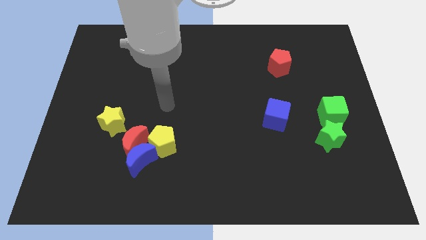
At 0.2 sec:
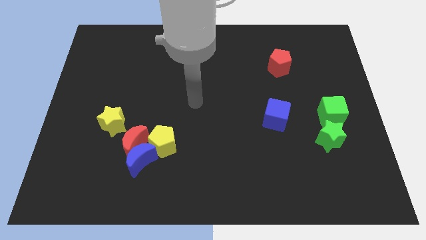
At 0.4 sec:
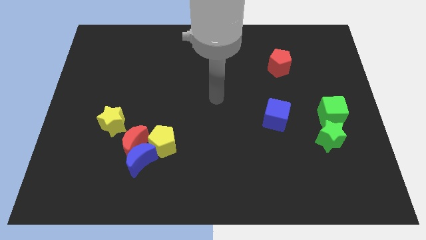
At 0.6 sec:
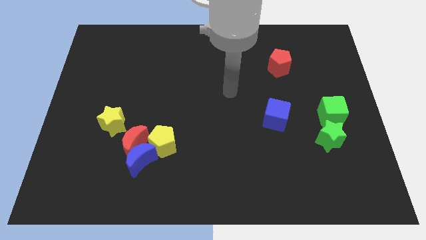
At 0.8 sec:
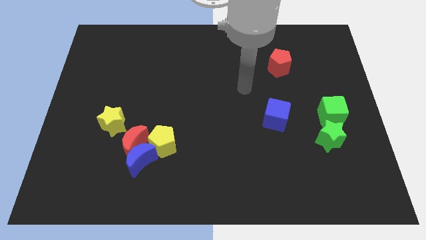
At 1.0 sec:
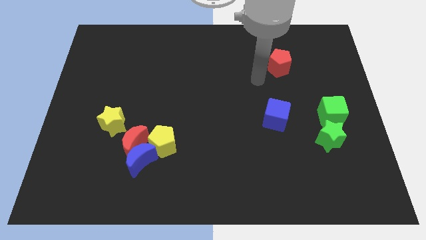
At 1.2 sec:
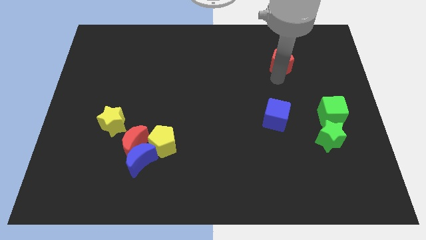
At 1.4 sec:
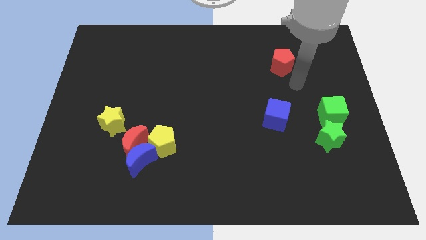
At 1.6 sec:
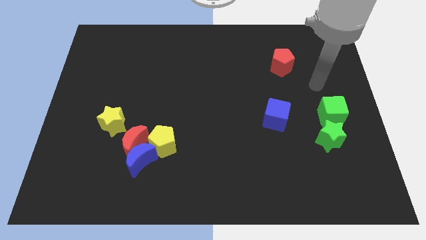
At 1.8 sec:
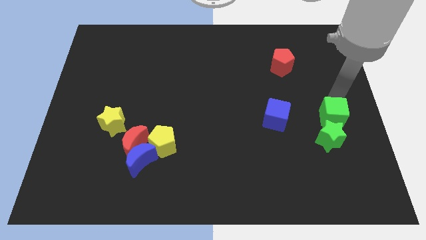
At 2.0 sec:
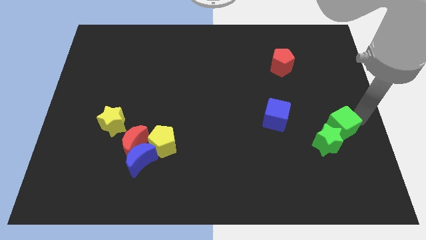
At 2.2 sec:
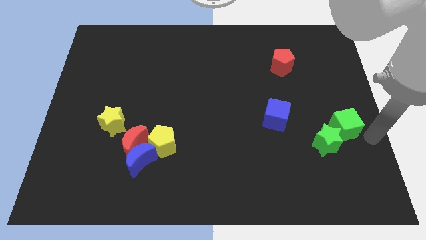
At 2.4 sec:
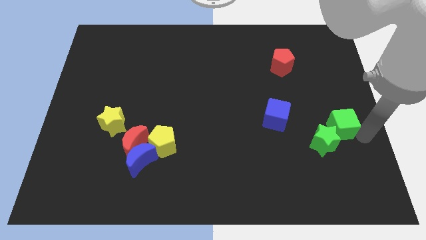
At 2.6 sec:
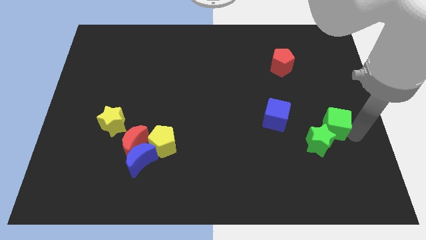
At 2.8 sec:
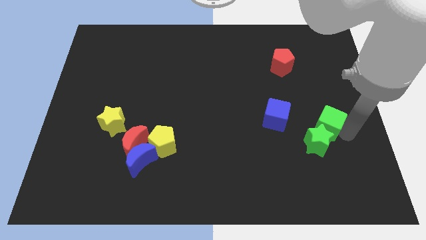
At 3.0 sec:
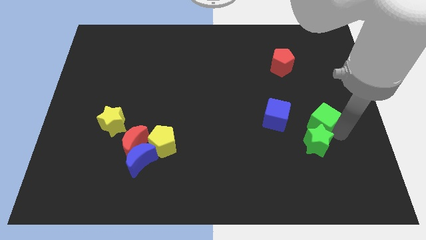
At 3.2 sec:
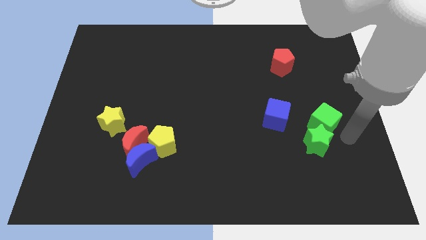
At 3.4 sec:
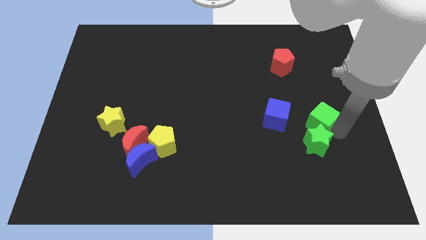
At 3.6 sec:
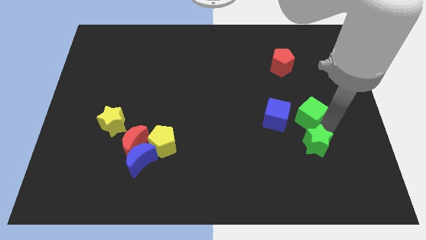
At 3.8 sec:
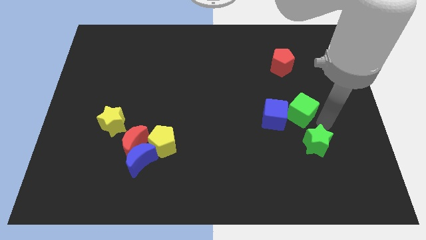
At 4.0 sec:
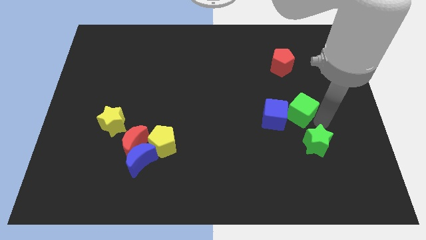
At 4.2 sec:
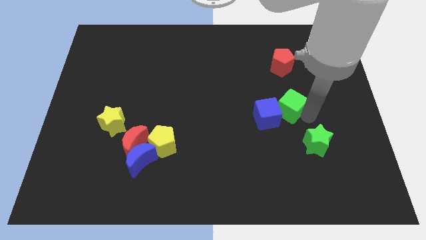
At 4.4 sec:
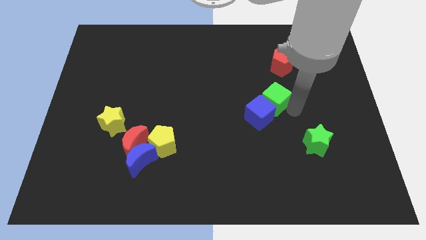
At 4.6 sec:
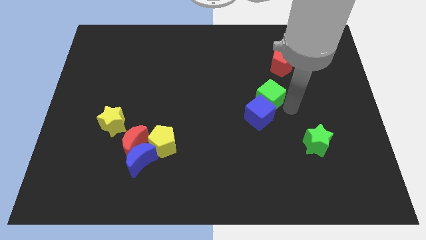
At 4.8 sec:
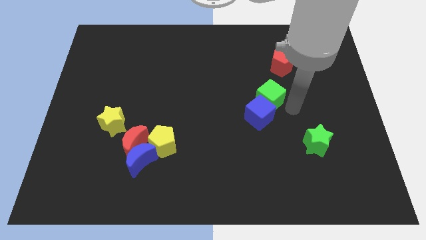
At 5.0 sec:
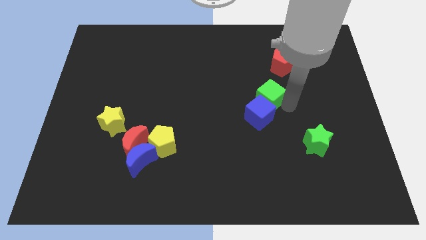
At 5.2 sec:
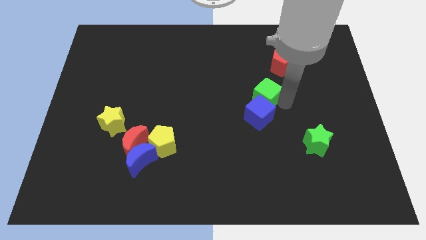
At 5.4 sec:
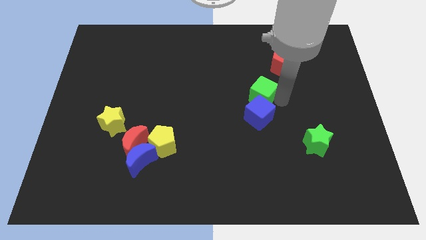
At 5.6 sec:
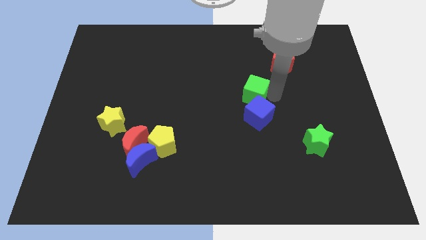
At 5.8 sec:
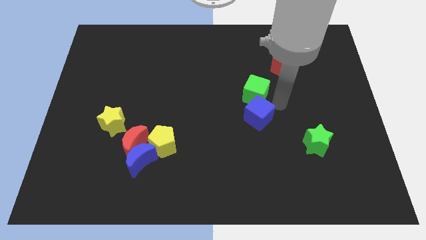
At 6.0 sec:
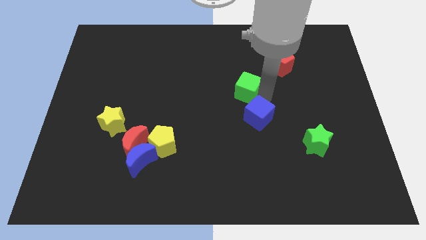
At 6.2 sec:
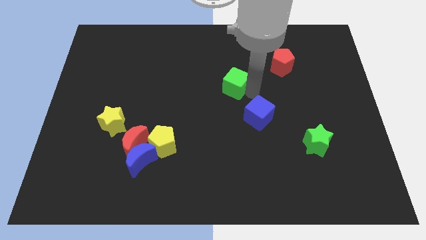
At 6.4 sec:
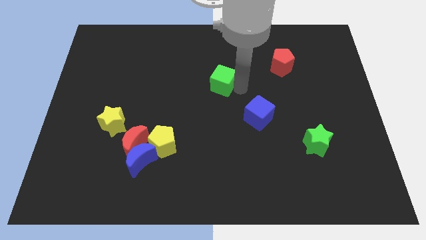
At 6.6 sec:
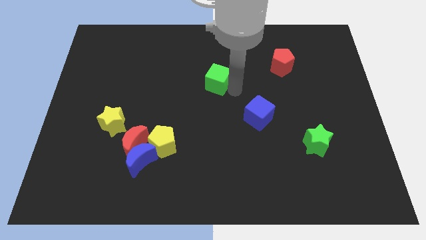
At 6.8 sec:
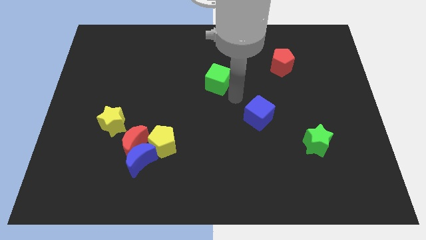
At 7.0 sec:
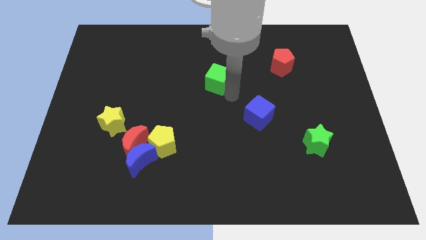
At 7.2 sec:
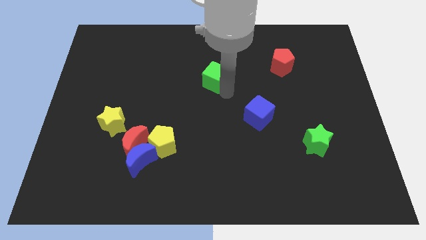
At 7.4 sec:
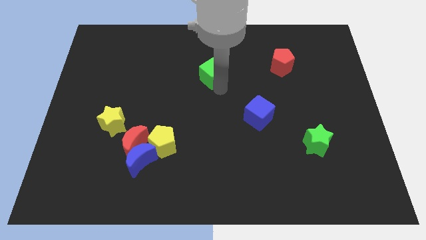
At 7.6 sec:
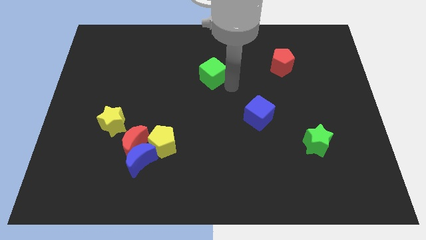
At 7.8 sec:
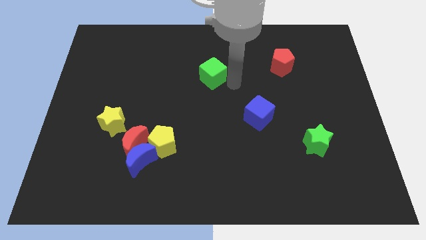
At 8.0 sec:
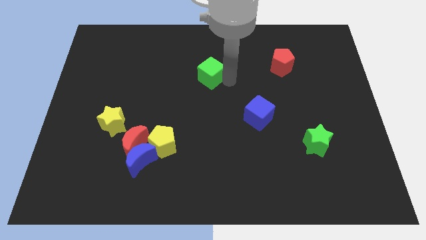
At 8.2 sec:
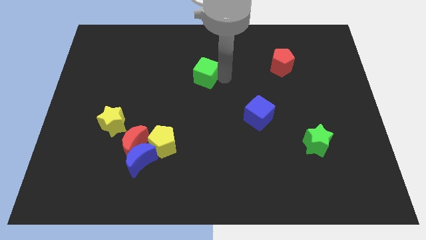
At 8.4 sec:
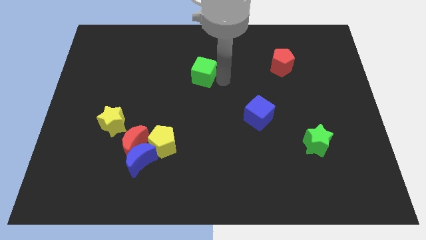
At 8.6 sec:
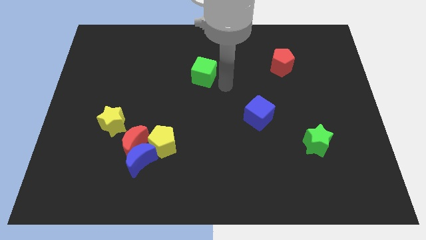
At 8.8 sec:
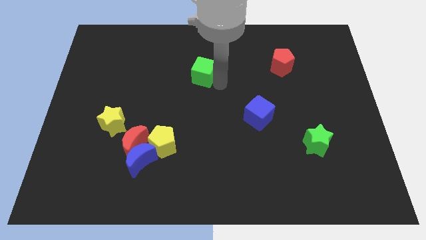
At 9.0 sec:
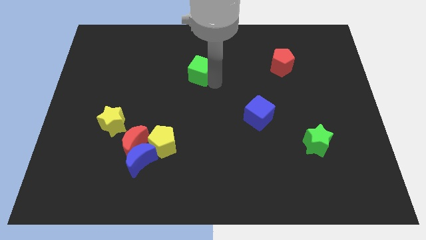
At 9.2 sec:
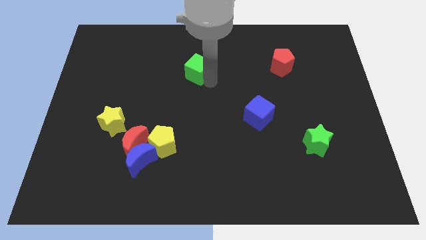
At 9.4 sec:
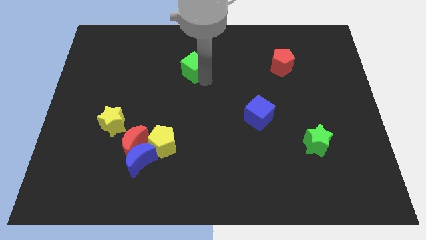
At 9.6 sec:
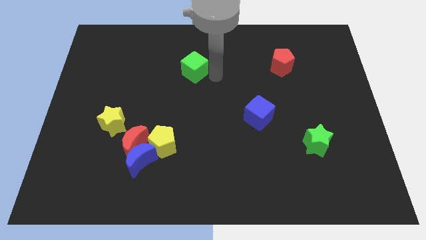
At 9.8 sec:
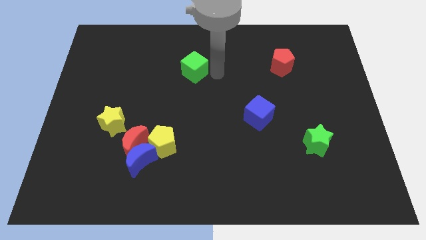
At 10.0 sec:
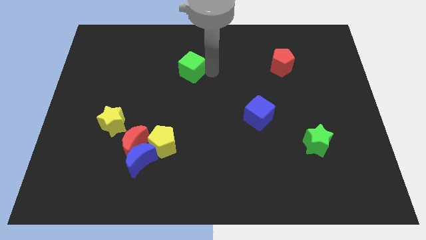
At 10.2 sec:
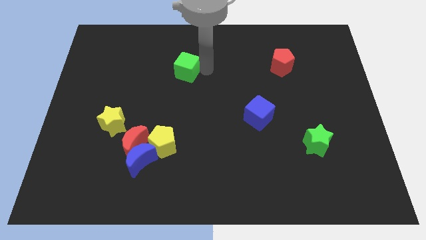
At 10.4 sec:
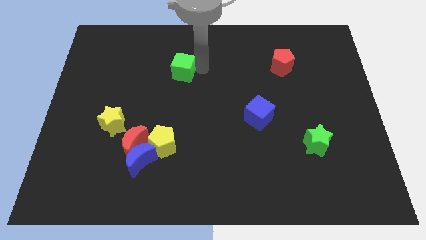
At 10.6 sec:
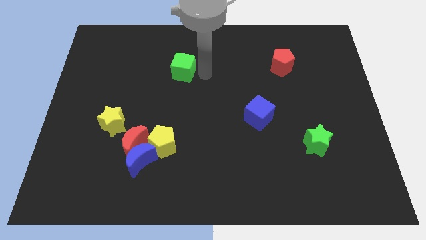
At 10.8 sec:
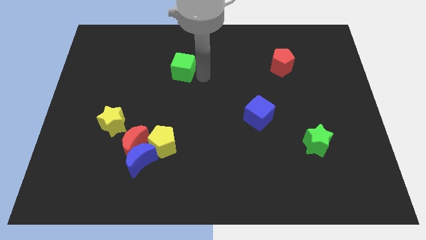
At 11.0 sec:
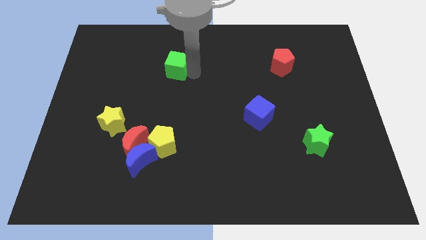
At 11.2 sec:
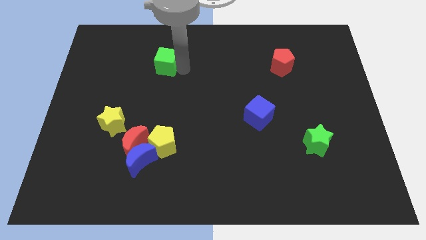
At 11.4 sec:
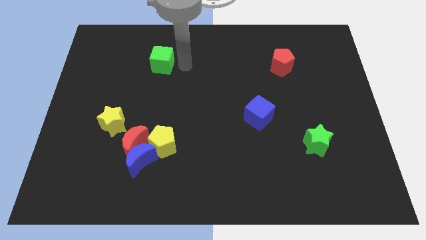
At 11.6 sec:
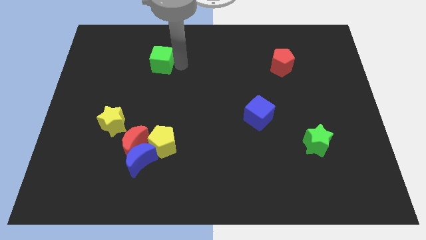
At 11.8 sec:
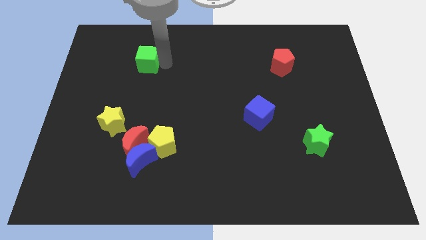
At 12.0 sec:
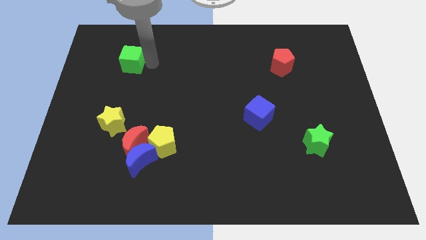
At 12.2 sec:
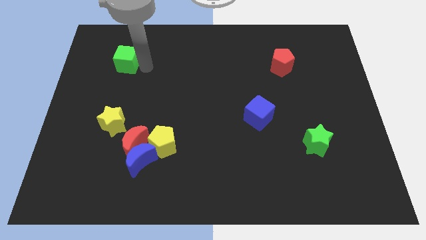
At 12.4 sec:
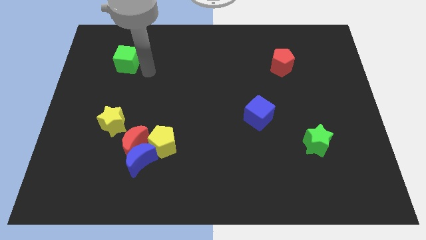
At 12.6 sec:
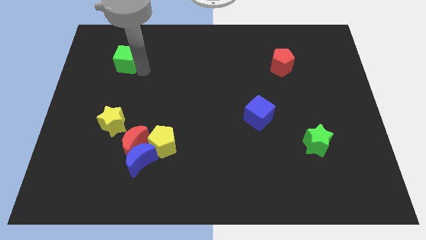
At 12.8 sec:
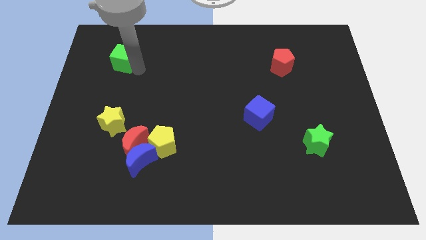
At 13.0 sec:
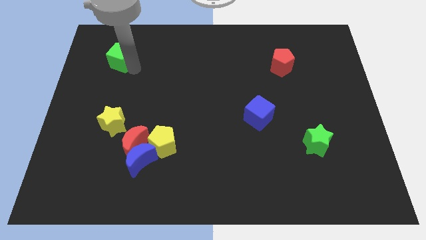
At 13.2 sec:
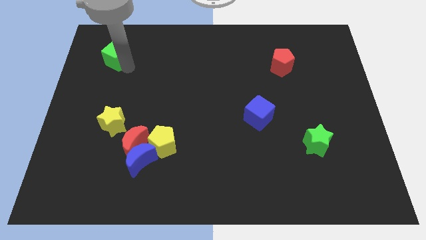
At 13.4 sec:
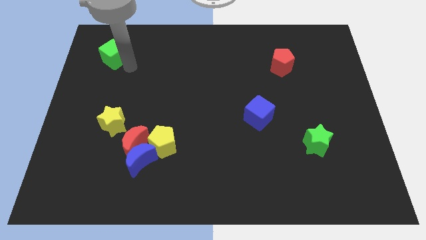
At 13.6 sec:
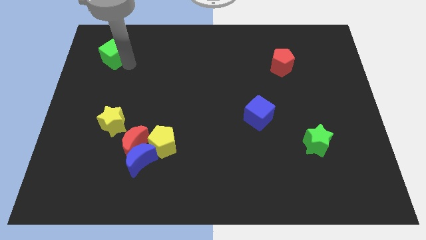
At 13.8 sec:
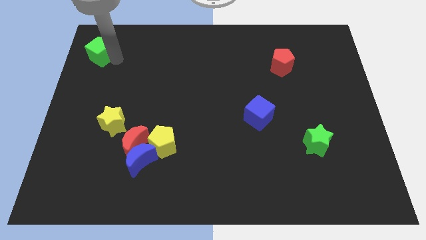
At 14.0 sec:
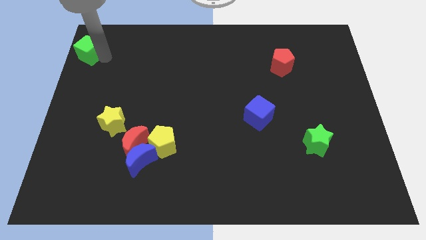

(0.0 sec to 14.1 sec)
slide the green cube to the top left corner
